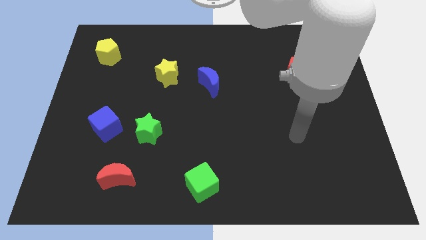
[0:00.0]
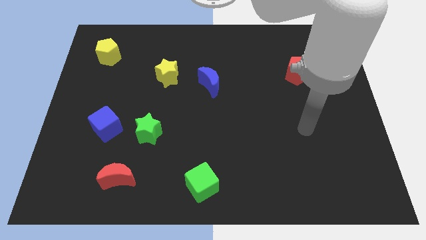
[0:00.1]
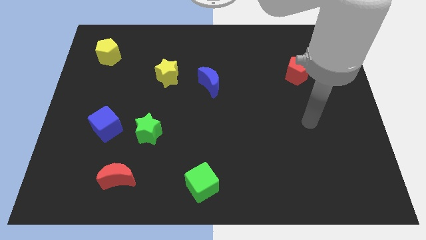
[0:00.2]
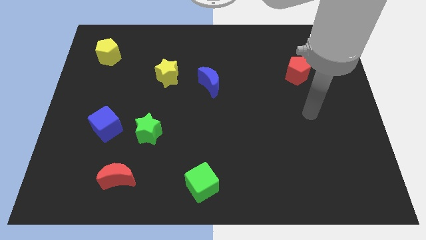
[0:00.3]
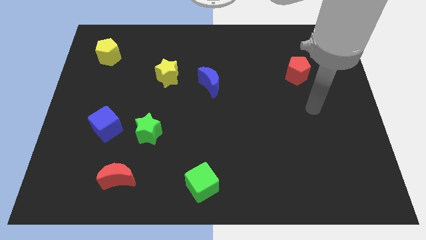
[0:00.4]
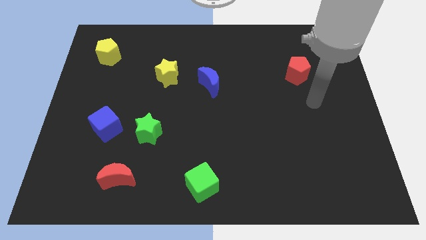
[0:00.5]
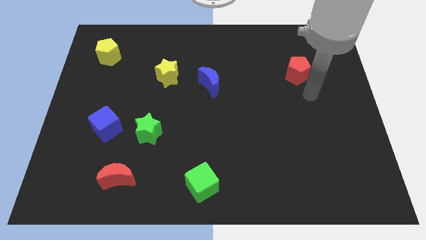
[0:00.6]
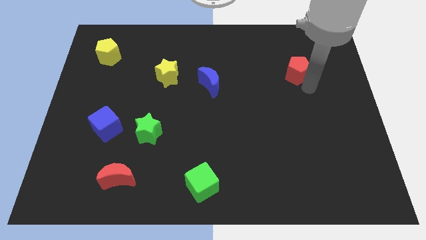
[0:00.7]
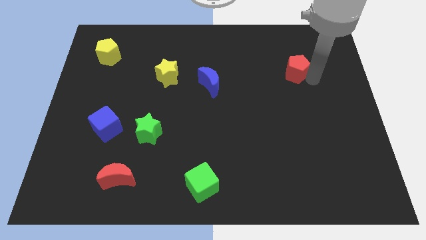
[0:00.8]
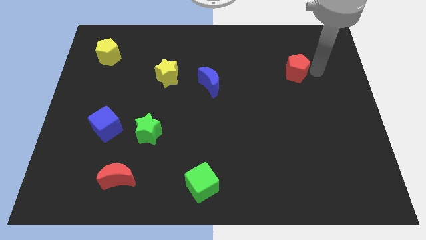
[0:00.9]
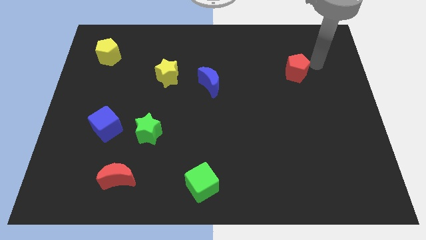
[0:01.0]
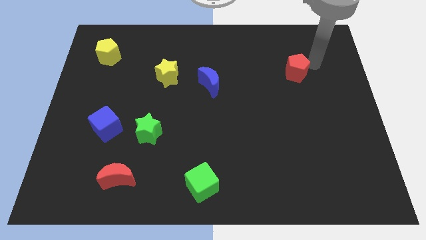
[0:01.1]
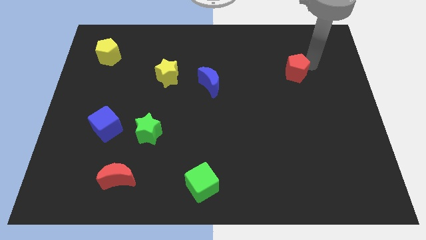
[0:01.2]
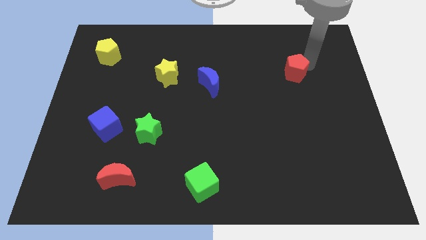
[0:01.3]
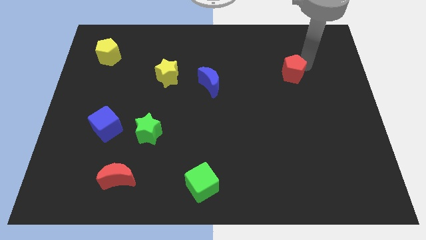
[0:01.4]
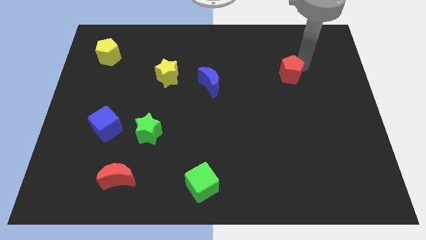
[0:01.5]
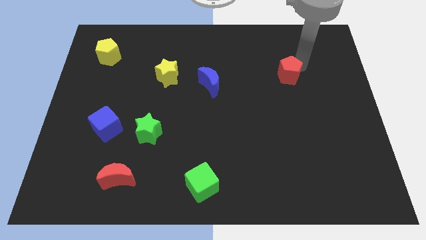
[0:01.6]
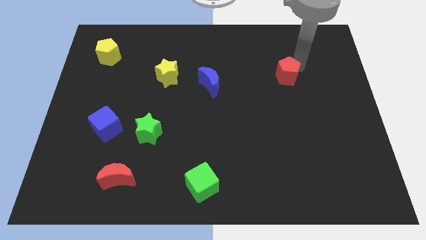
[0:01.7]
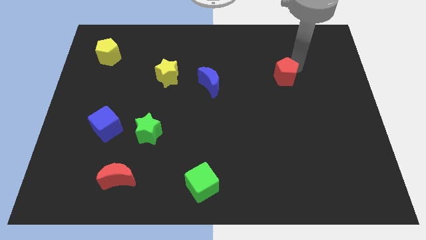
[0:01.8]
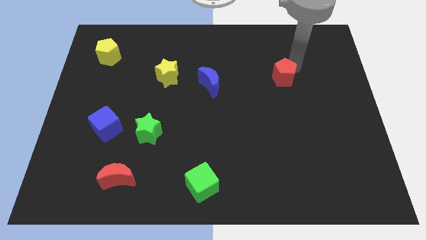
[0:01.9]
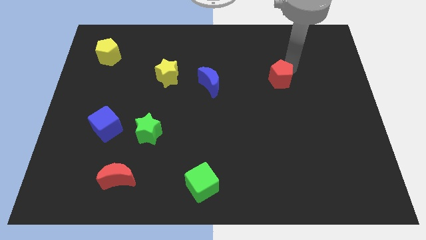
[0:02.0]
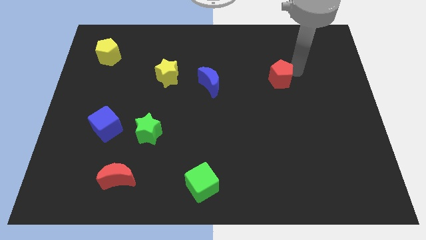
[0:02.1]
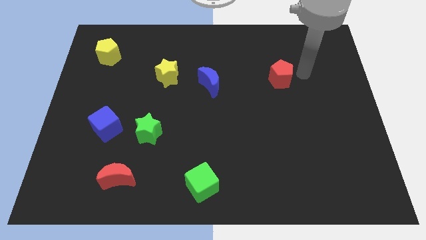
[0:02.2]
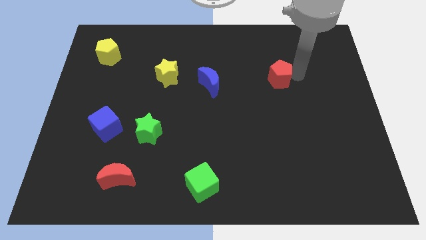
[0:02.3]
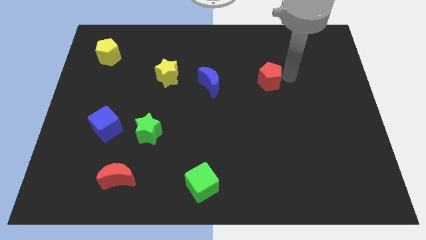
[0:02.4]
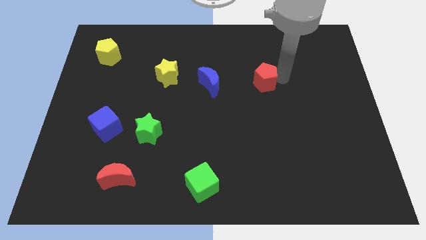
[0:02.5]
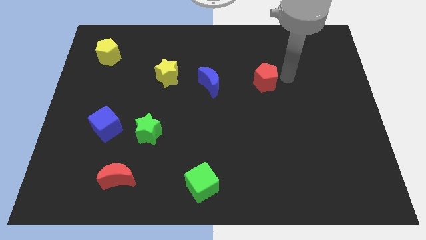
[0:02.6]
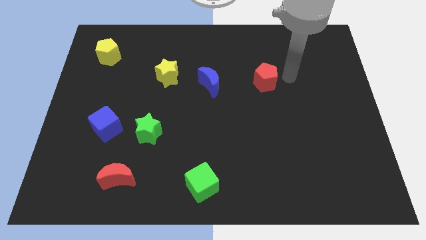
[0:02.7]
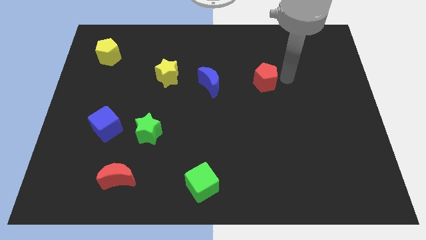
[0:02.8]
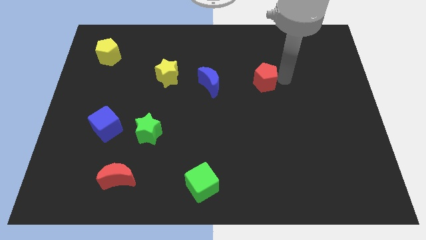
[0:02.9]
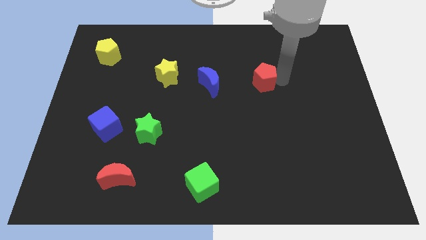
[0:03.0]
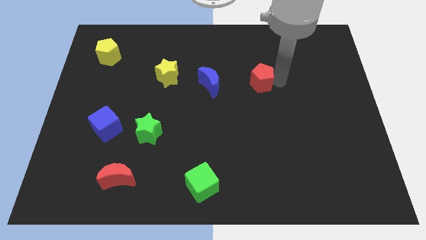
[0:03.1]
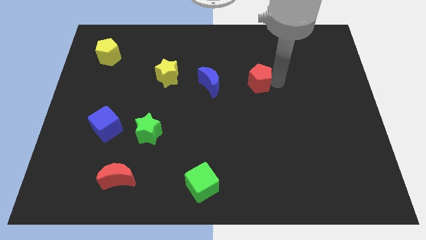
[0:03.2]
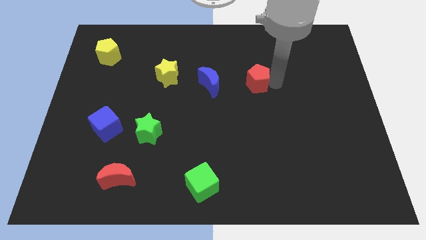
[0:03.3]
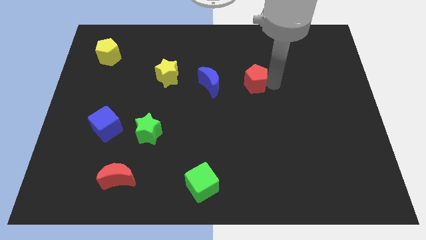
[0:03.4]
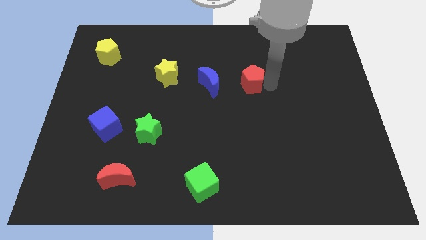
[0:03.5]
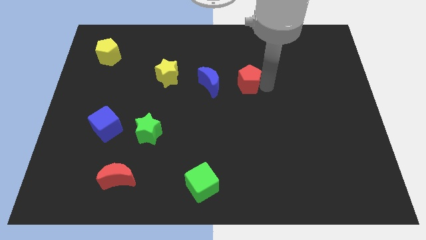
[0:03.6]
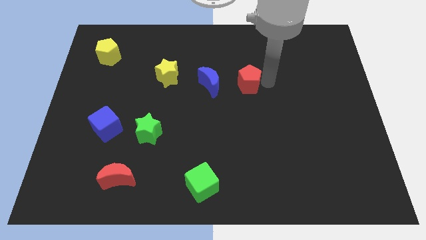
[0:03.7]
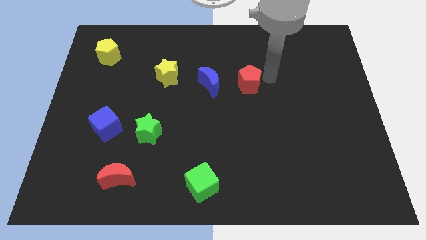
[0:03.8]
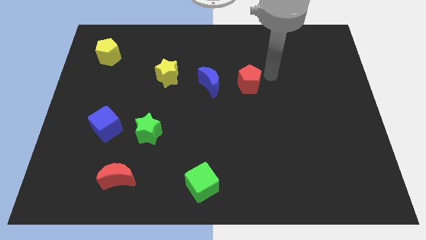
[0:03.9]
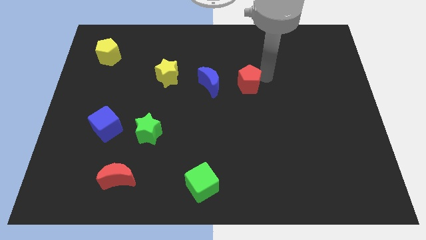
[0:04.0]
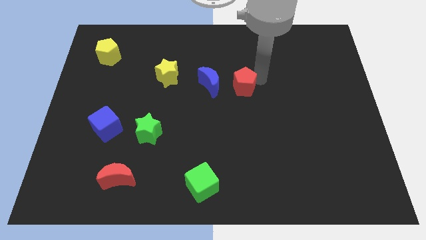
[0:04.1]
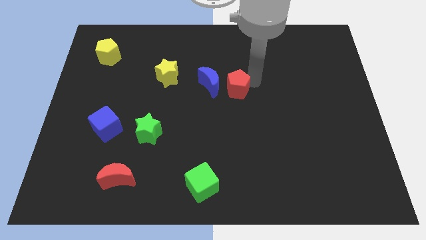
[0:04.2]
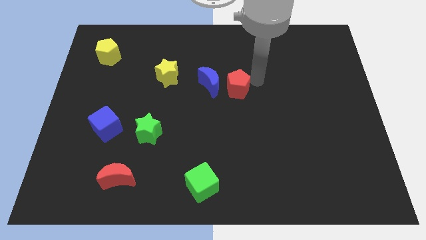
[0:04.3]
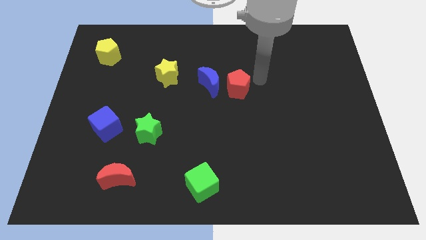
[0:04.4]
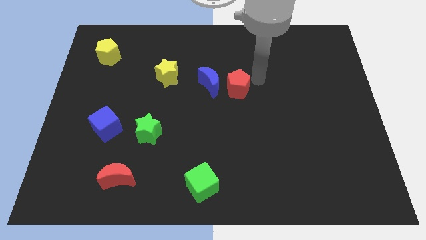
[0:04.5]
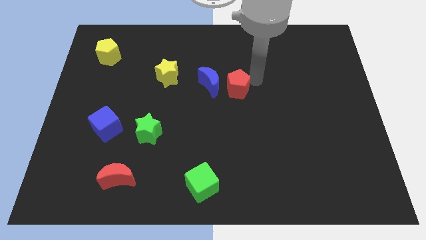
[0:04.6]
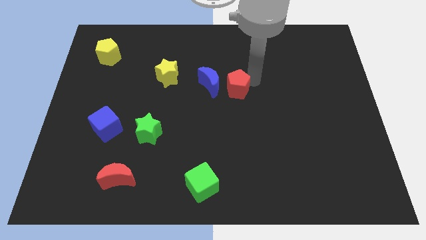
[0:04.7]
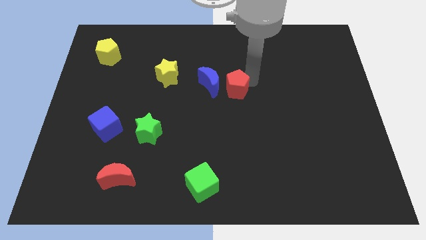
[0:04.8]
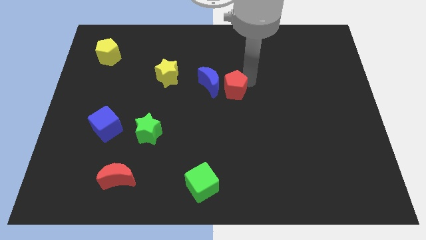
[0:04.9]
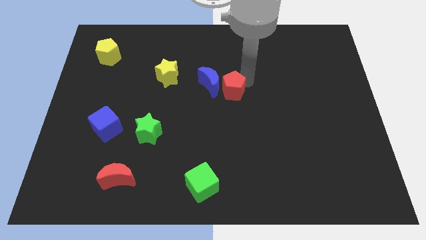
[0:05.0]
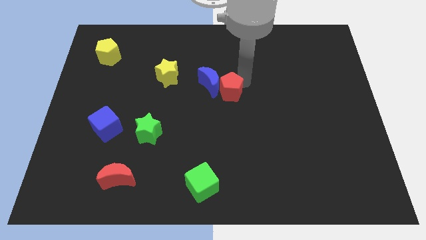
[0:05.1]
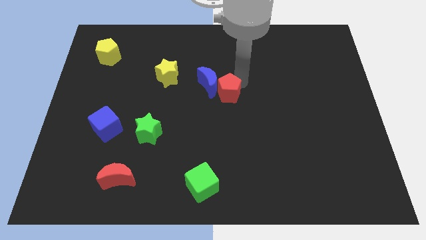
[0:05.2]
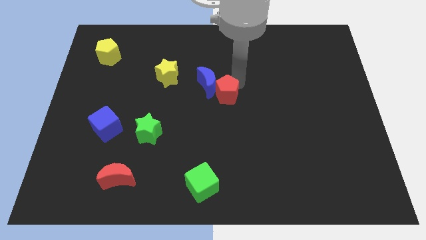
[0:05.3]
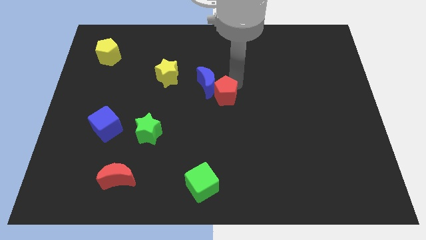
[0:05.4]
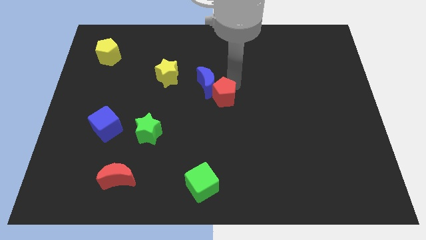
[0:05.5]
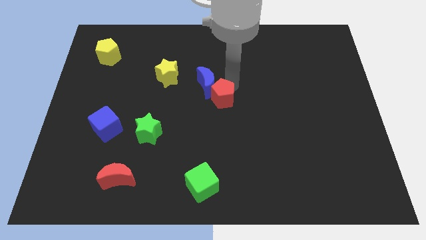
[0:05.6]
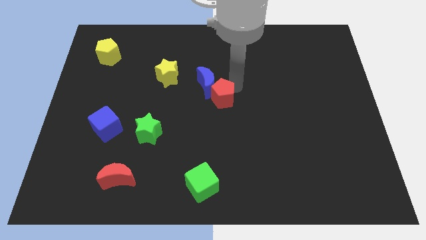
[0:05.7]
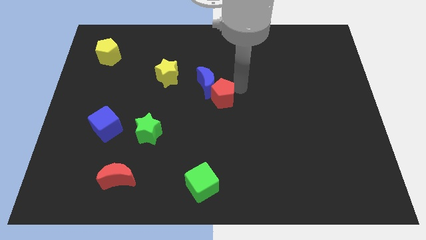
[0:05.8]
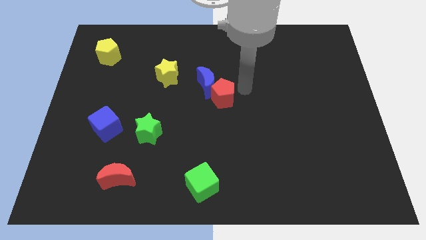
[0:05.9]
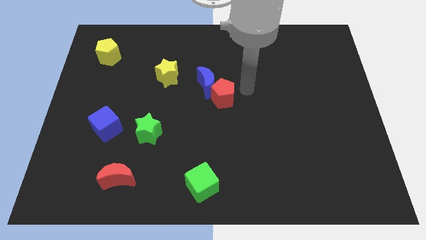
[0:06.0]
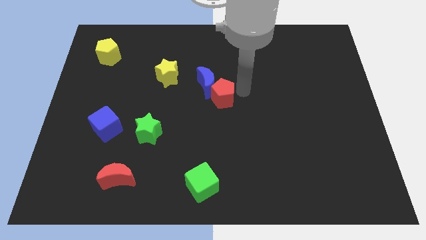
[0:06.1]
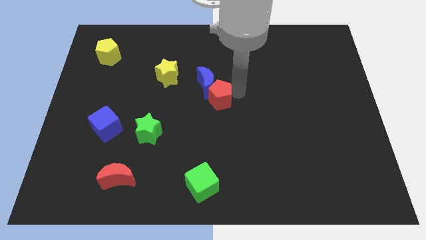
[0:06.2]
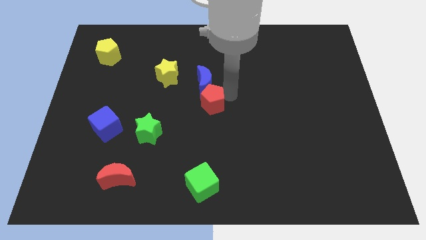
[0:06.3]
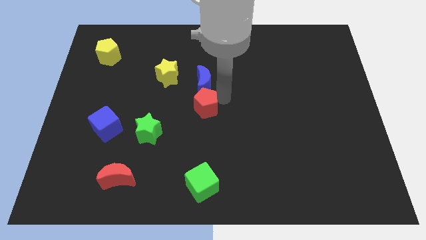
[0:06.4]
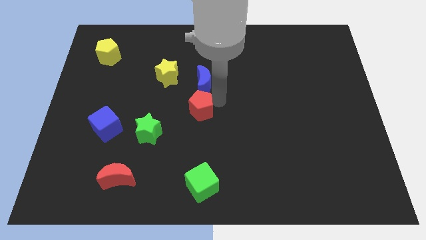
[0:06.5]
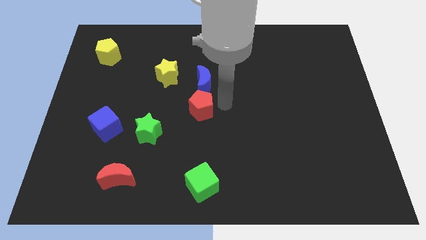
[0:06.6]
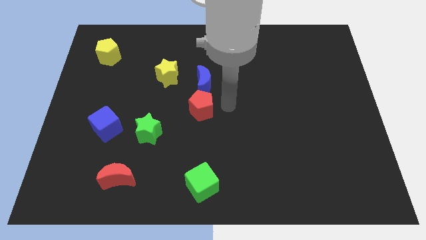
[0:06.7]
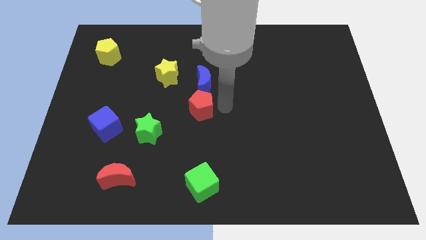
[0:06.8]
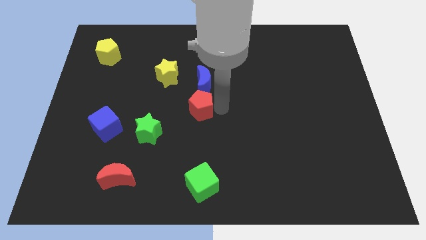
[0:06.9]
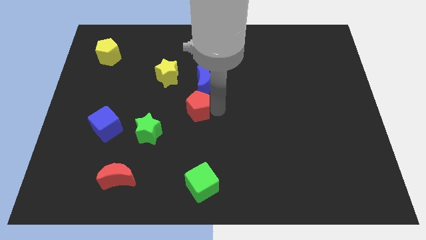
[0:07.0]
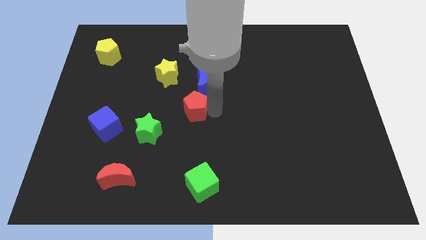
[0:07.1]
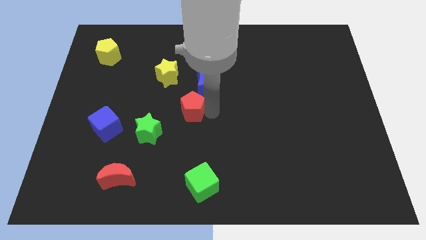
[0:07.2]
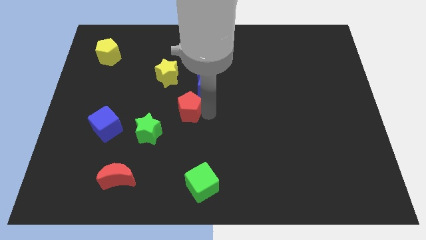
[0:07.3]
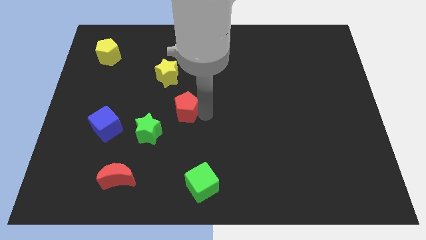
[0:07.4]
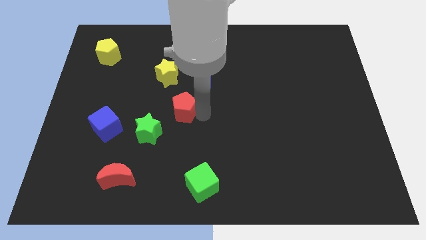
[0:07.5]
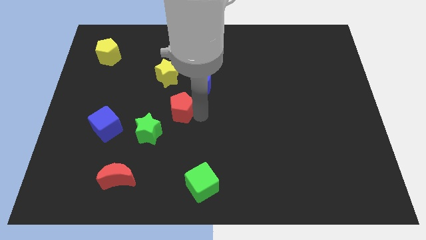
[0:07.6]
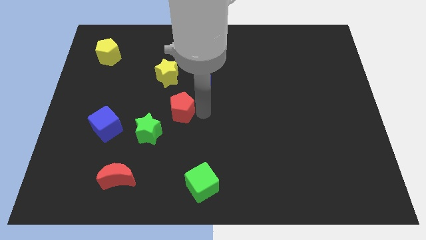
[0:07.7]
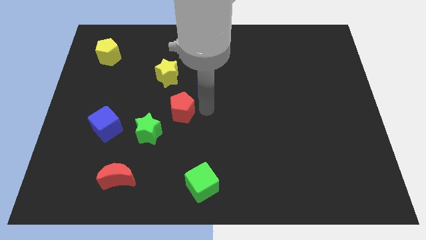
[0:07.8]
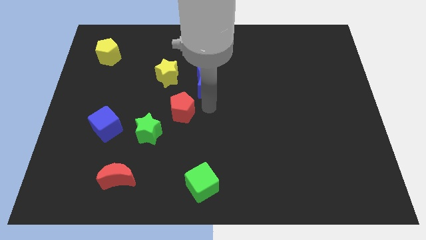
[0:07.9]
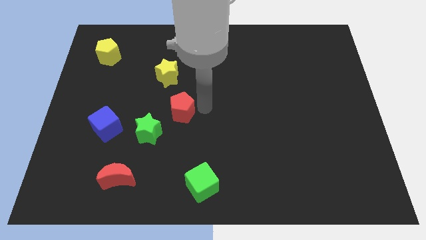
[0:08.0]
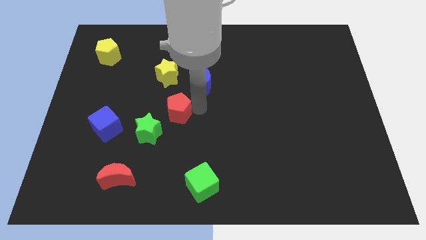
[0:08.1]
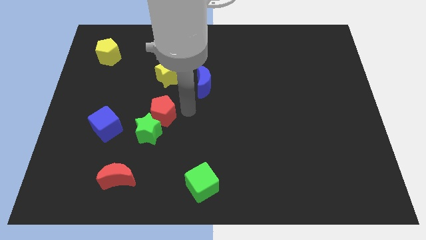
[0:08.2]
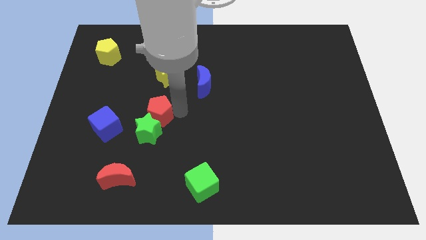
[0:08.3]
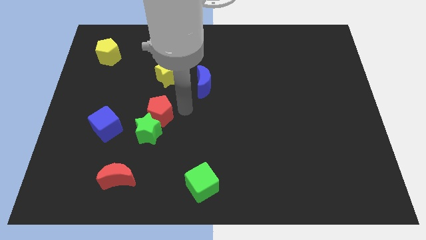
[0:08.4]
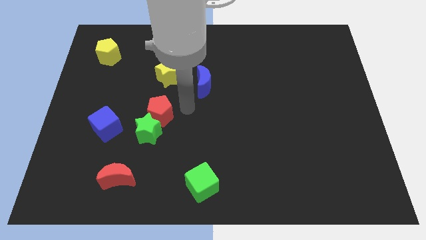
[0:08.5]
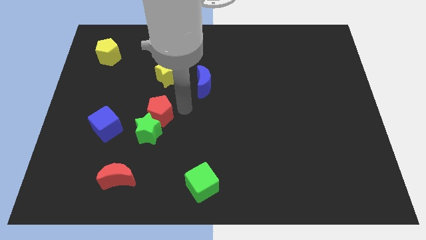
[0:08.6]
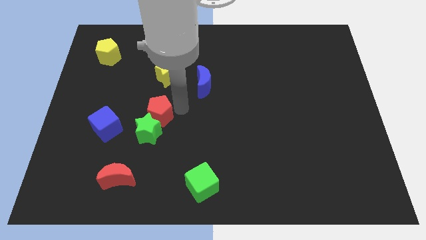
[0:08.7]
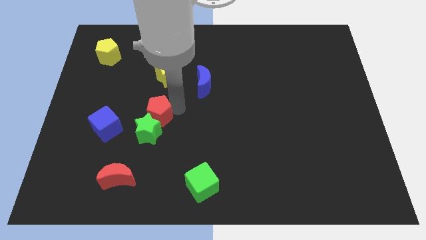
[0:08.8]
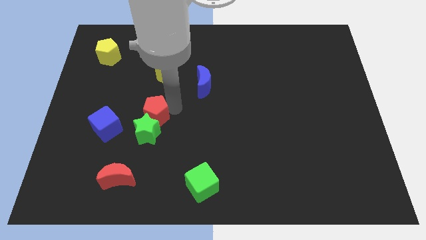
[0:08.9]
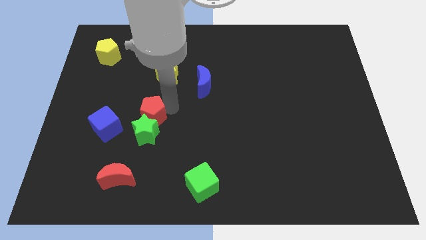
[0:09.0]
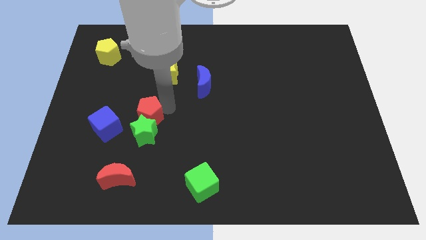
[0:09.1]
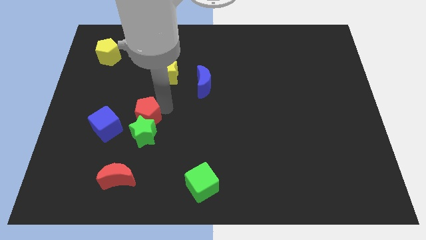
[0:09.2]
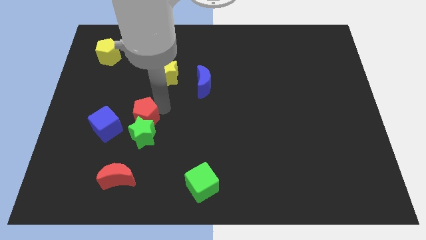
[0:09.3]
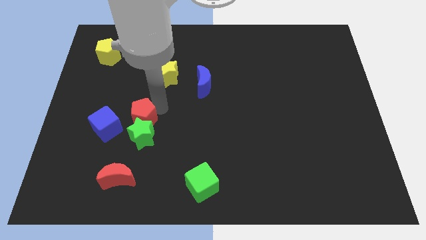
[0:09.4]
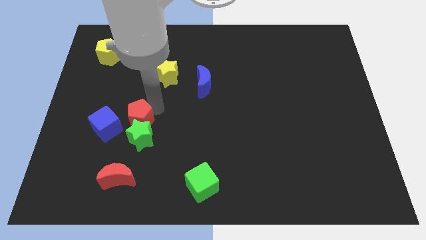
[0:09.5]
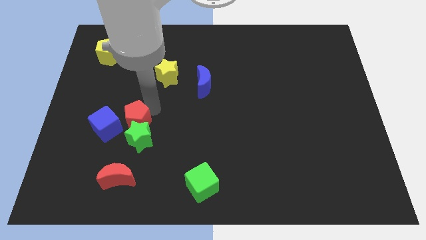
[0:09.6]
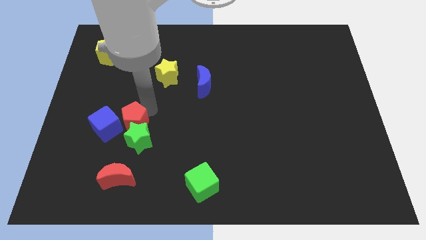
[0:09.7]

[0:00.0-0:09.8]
slide the red pentagon to the blue cube
